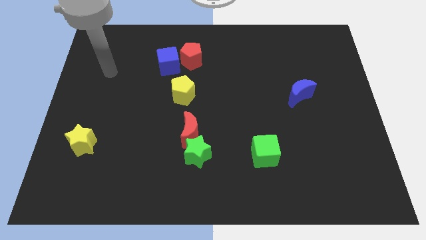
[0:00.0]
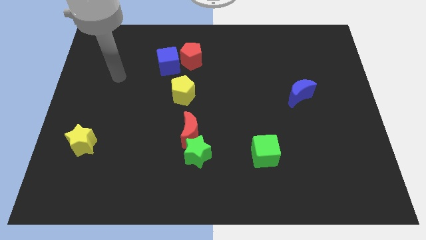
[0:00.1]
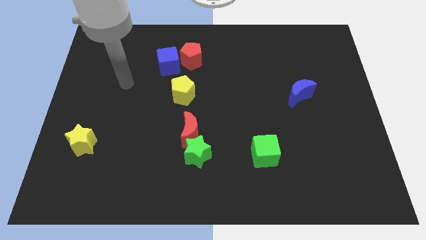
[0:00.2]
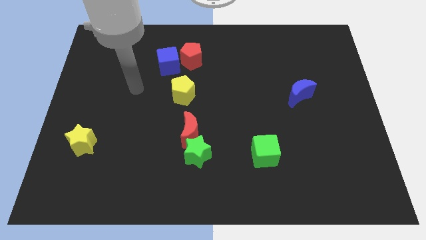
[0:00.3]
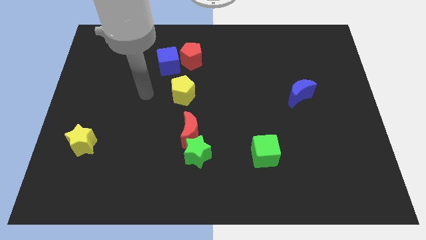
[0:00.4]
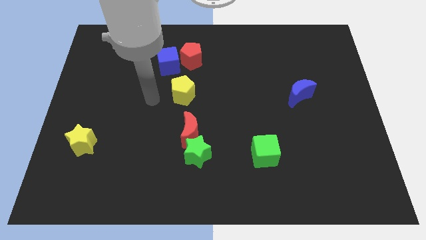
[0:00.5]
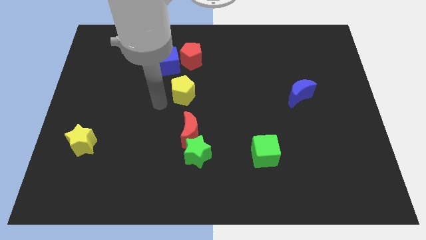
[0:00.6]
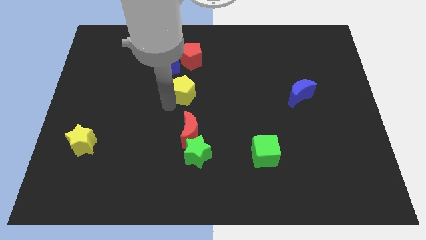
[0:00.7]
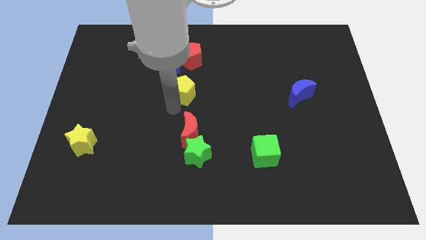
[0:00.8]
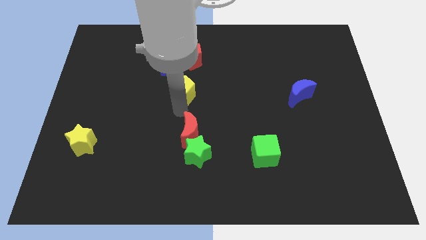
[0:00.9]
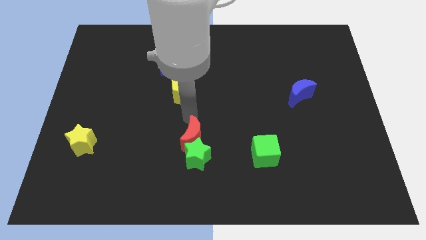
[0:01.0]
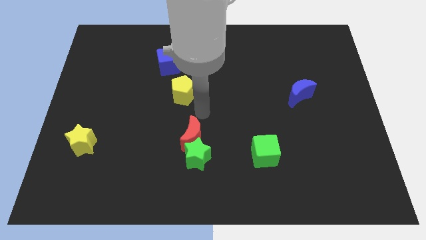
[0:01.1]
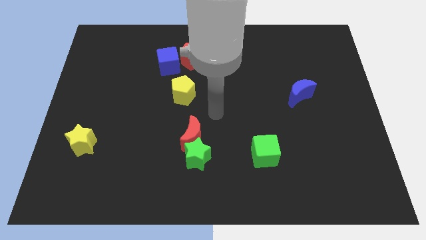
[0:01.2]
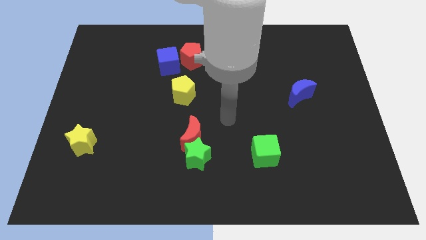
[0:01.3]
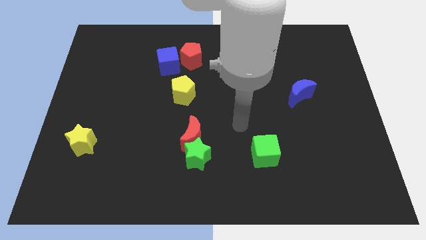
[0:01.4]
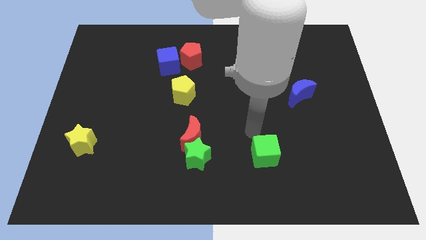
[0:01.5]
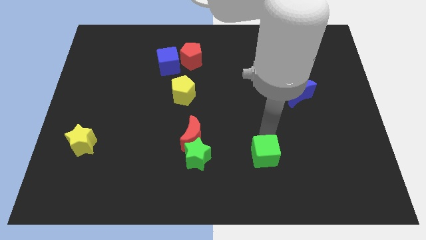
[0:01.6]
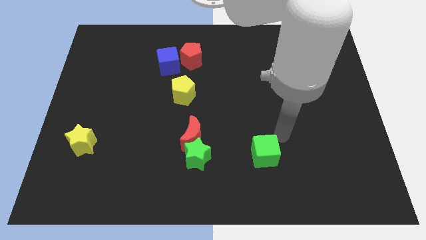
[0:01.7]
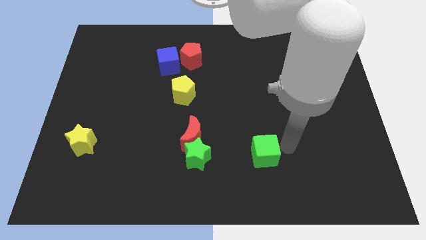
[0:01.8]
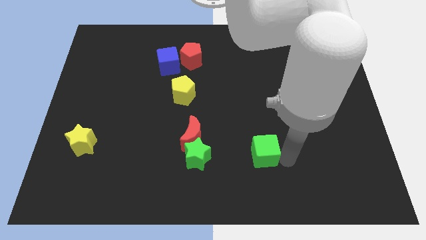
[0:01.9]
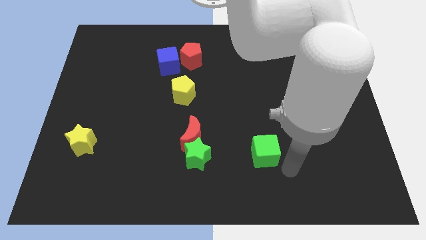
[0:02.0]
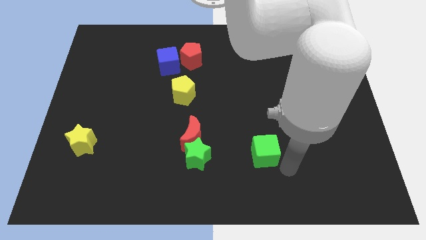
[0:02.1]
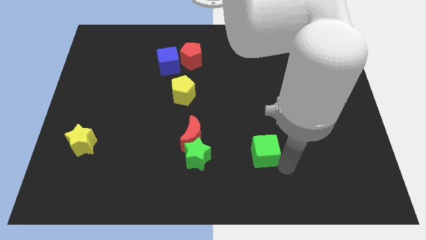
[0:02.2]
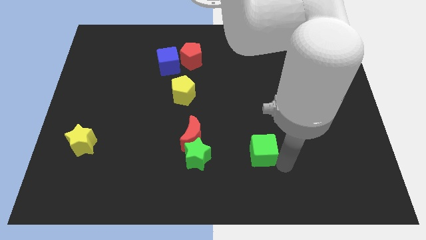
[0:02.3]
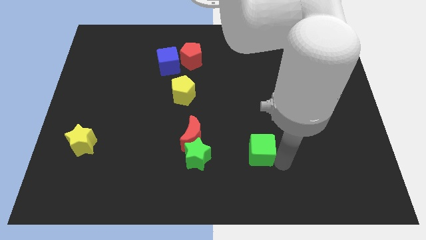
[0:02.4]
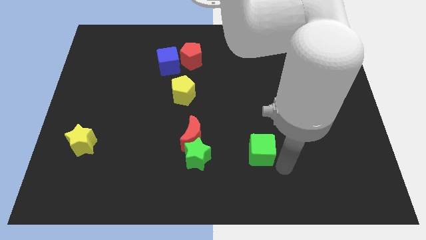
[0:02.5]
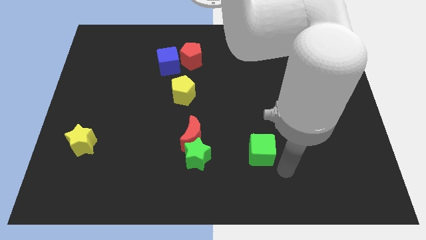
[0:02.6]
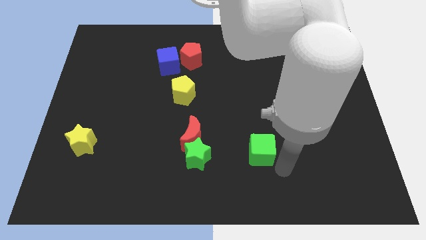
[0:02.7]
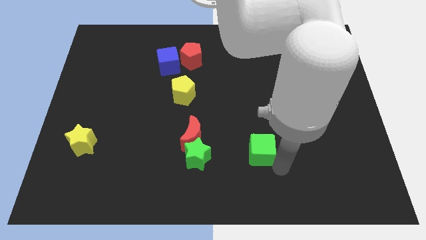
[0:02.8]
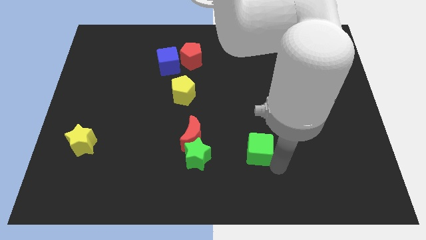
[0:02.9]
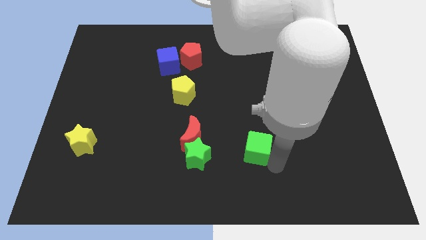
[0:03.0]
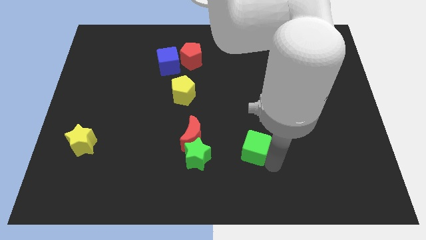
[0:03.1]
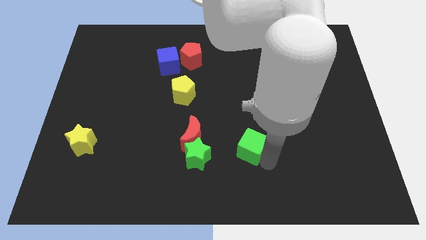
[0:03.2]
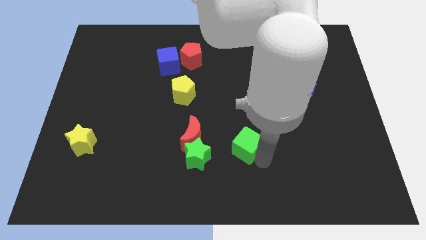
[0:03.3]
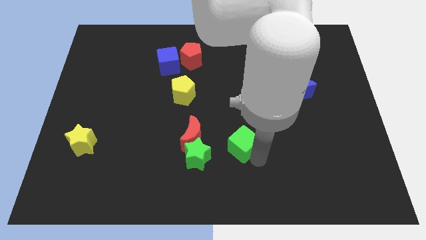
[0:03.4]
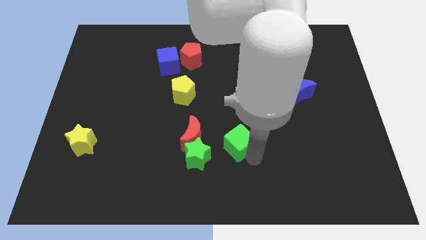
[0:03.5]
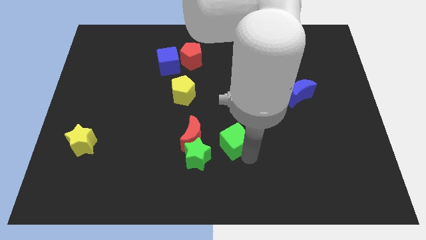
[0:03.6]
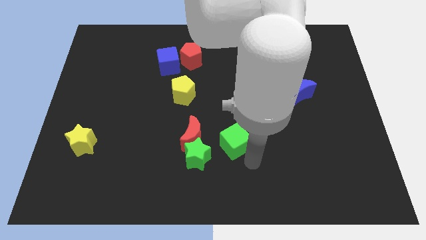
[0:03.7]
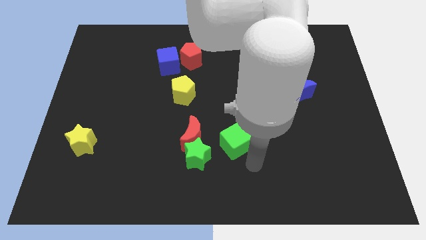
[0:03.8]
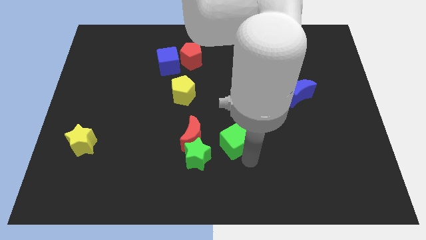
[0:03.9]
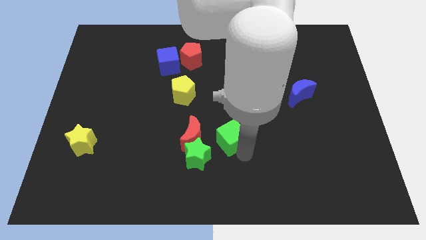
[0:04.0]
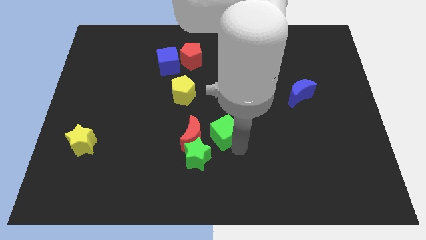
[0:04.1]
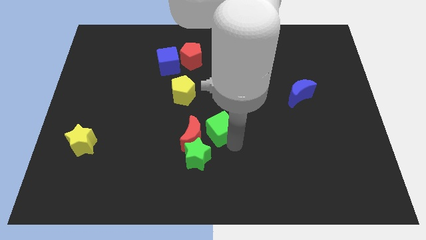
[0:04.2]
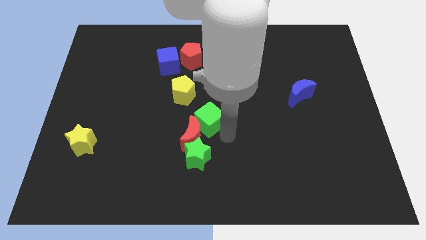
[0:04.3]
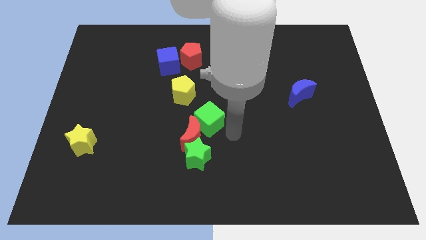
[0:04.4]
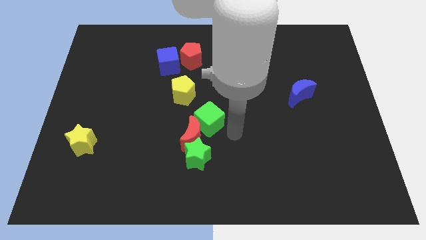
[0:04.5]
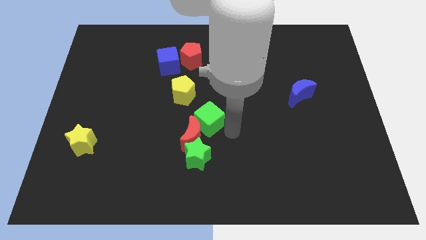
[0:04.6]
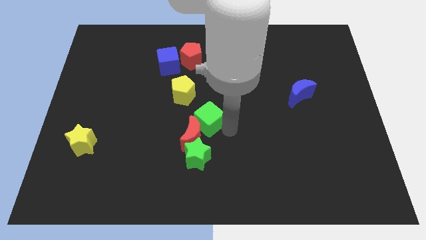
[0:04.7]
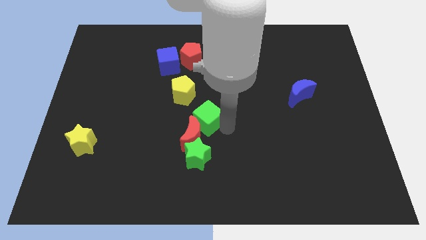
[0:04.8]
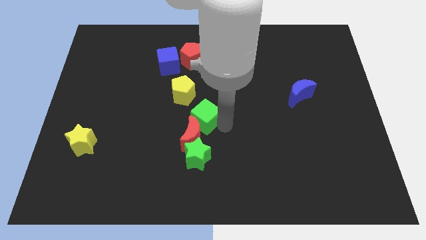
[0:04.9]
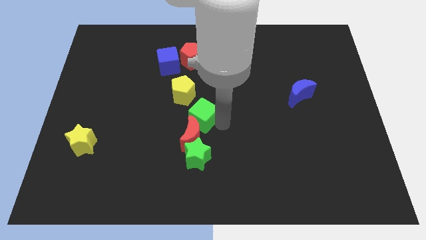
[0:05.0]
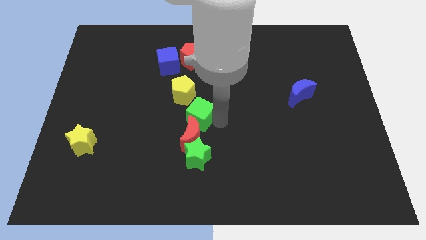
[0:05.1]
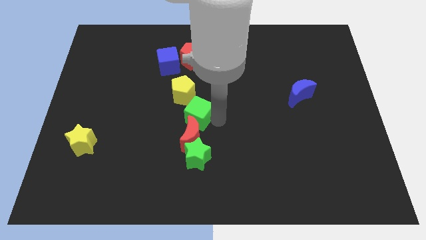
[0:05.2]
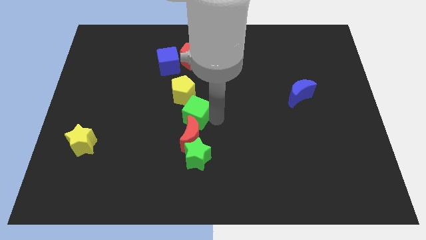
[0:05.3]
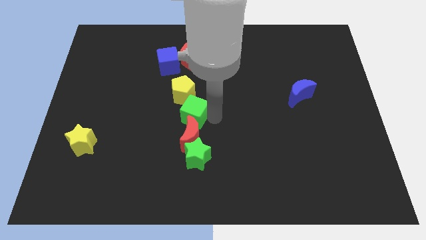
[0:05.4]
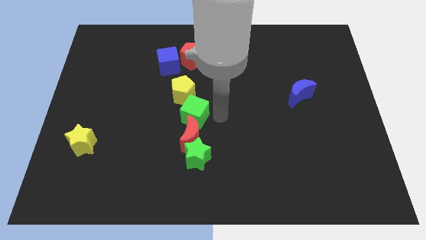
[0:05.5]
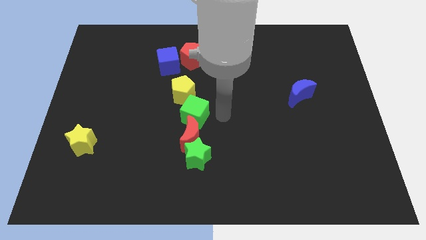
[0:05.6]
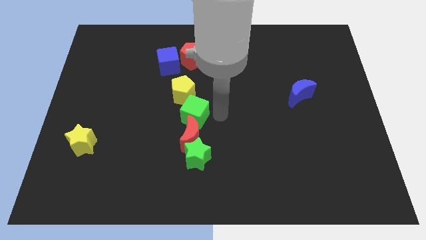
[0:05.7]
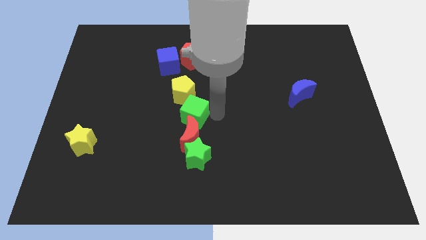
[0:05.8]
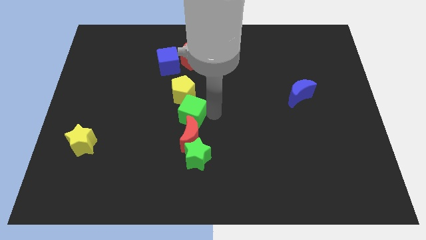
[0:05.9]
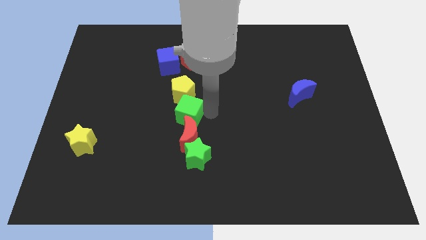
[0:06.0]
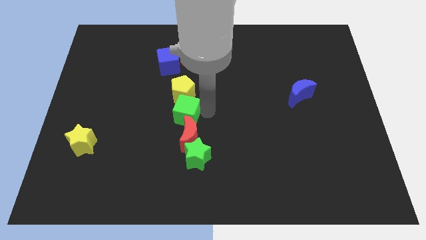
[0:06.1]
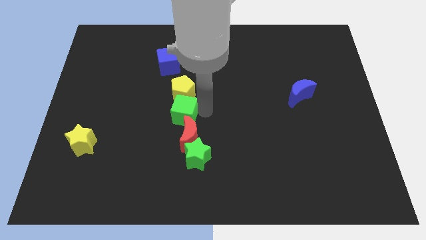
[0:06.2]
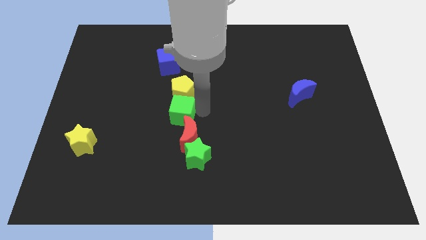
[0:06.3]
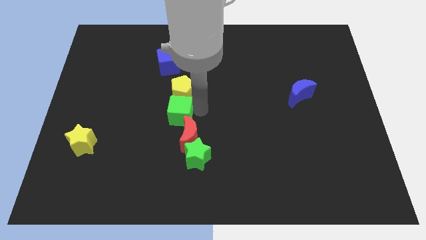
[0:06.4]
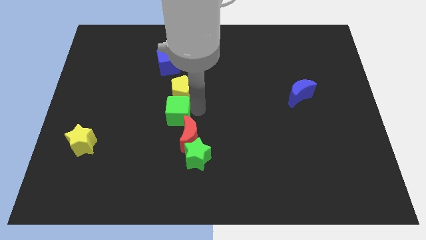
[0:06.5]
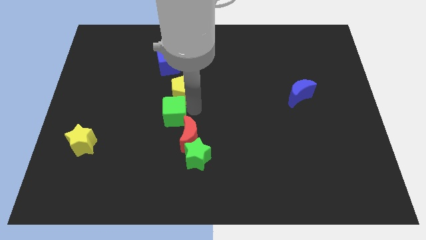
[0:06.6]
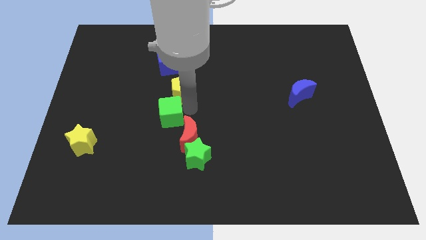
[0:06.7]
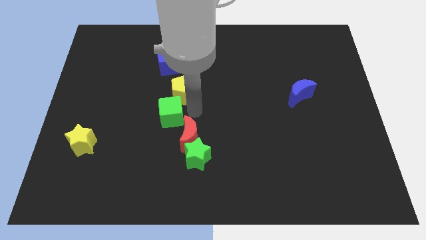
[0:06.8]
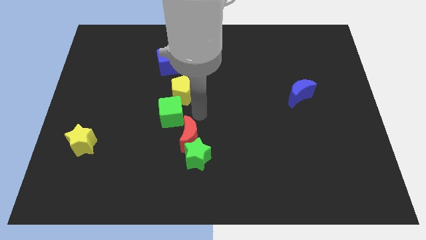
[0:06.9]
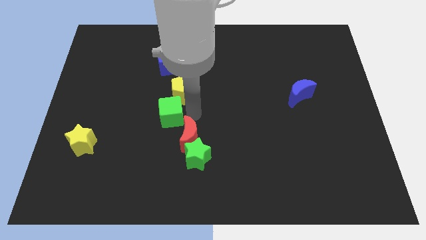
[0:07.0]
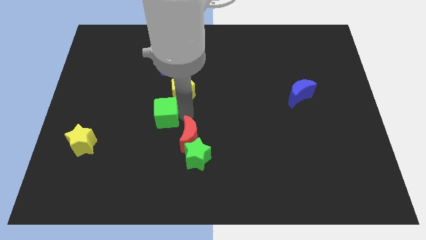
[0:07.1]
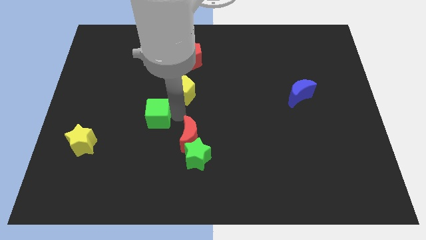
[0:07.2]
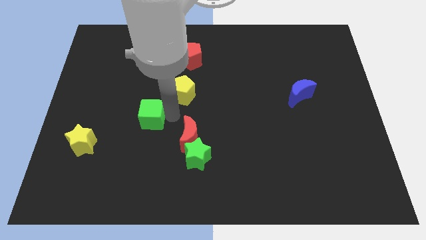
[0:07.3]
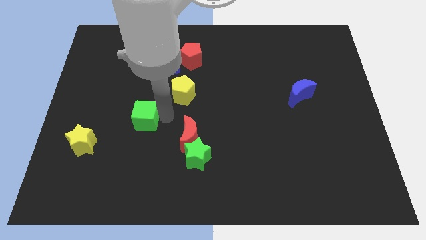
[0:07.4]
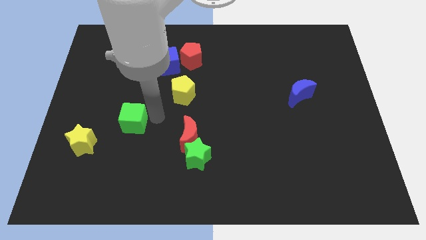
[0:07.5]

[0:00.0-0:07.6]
move the green cube diagonally up and to the right of the yellow star
